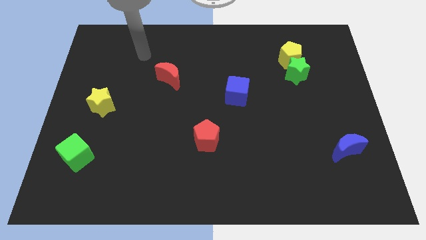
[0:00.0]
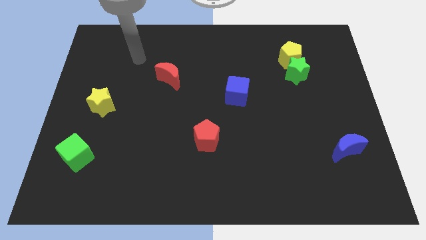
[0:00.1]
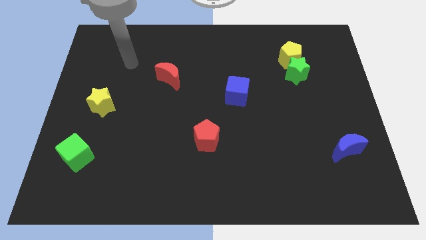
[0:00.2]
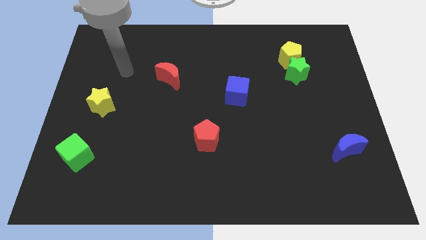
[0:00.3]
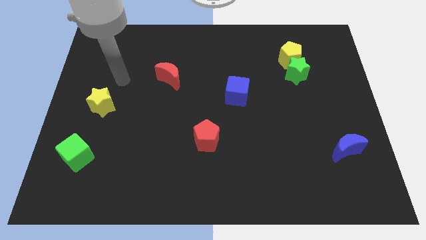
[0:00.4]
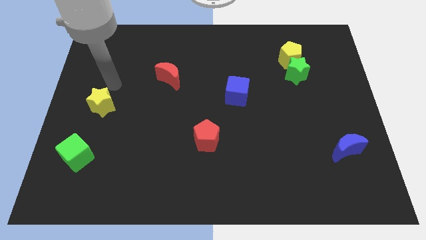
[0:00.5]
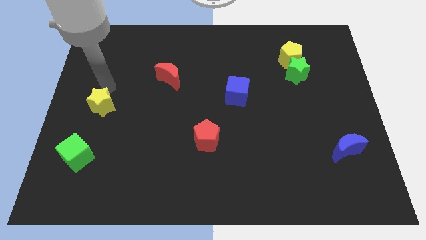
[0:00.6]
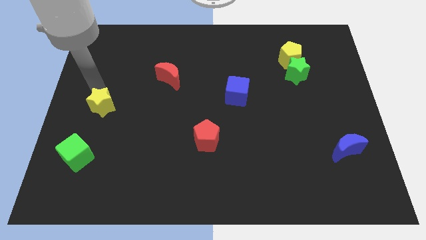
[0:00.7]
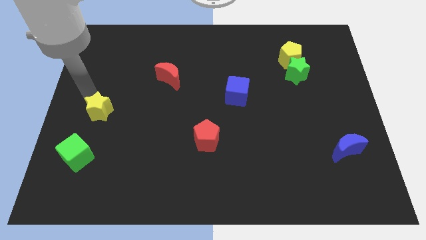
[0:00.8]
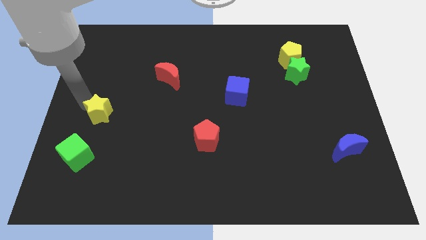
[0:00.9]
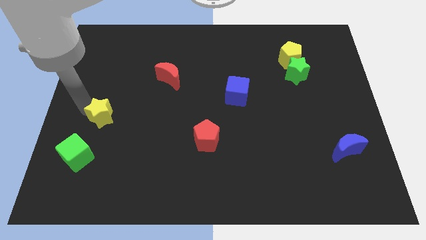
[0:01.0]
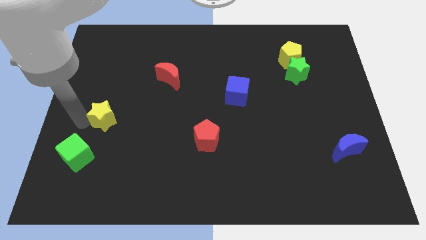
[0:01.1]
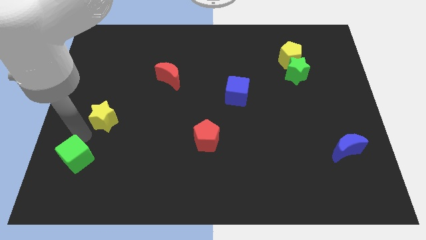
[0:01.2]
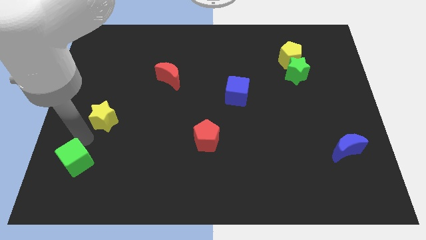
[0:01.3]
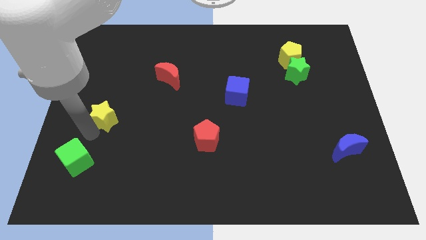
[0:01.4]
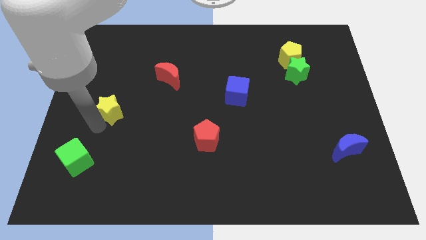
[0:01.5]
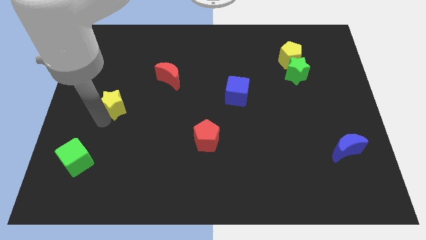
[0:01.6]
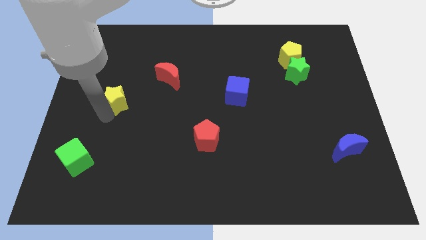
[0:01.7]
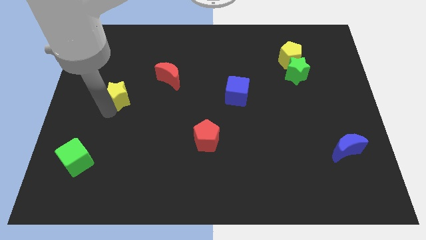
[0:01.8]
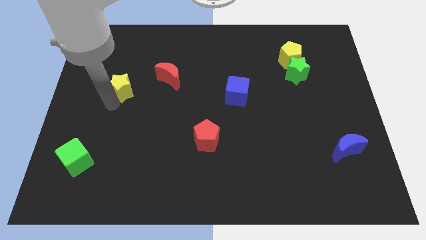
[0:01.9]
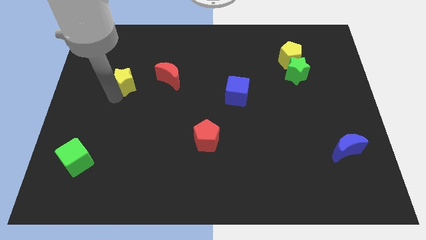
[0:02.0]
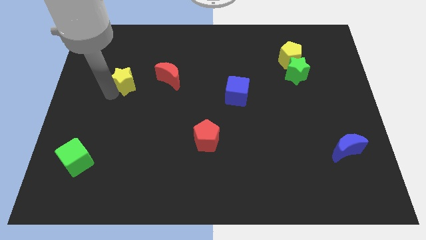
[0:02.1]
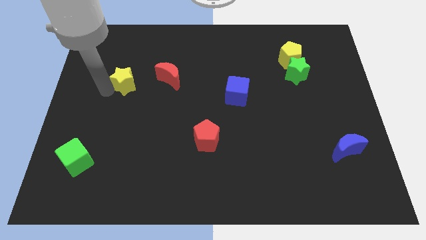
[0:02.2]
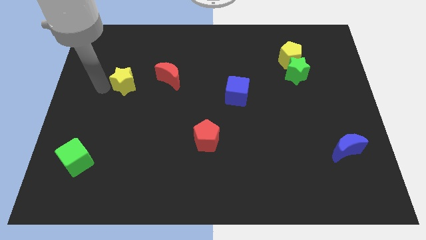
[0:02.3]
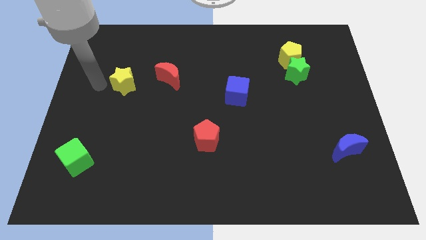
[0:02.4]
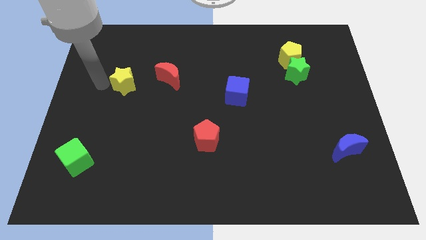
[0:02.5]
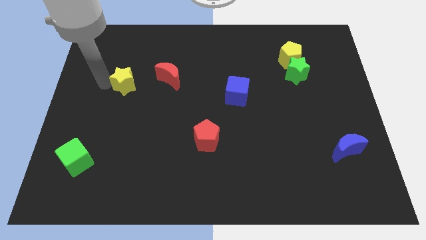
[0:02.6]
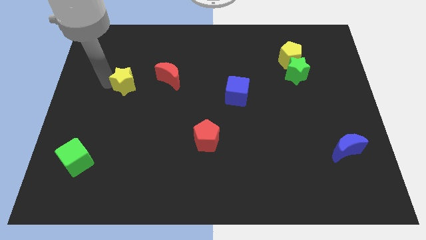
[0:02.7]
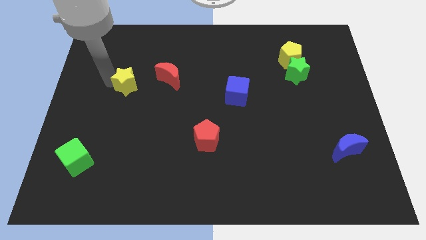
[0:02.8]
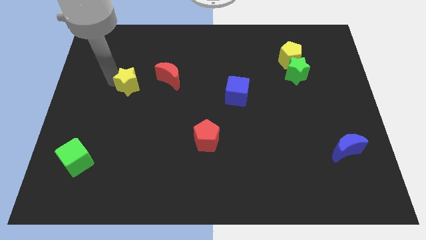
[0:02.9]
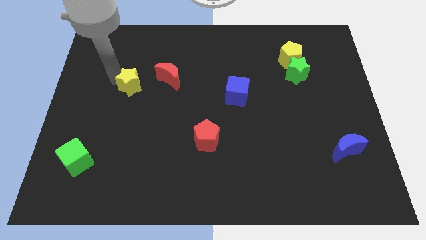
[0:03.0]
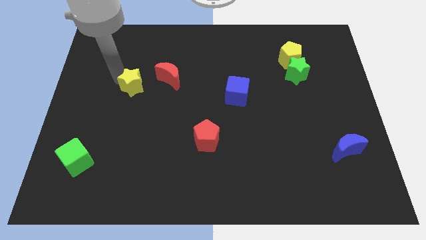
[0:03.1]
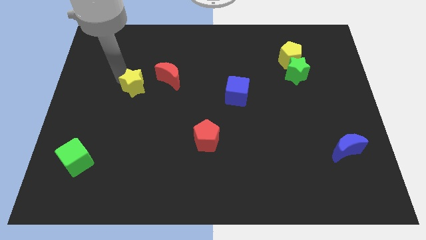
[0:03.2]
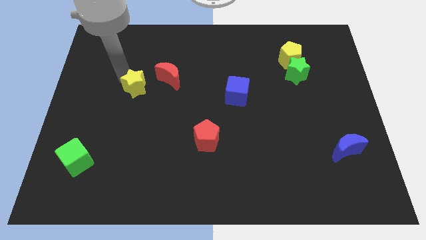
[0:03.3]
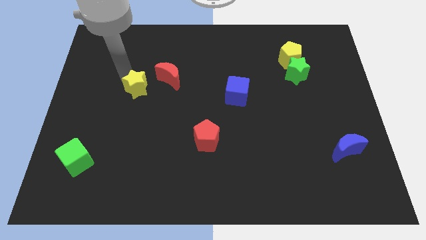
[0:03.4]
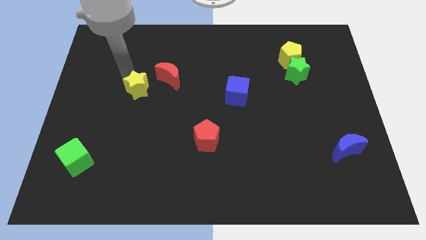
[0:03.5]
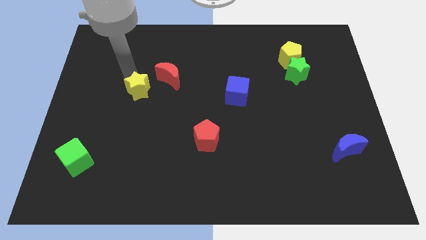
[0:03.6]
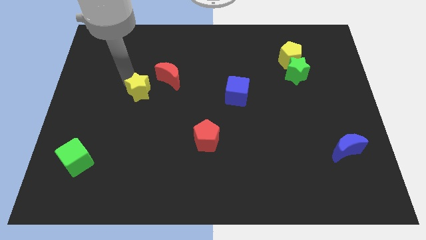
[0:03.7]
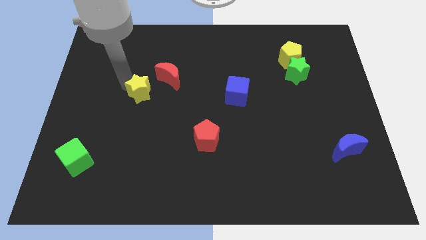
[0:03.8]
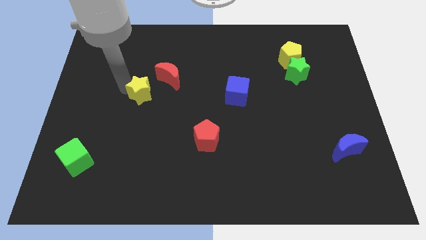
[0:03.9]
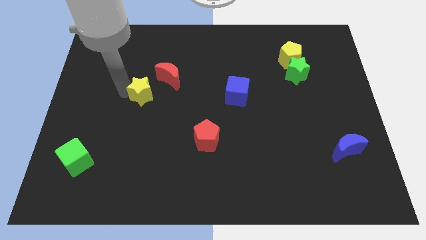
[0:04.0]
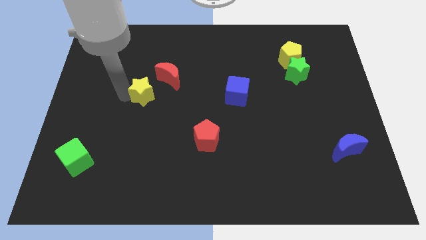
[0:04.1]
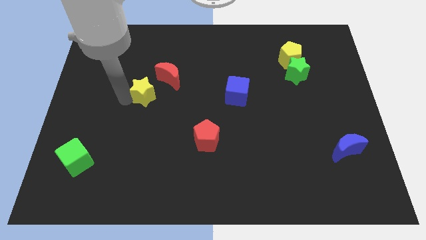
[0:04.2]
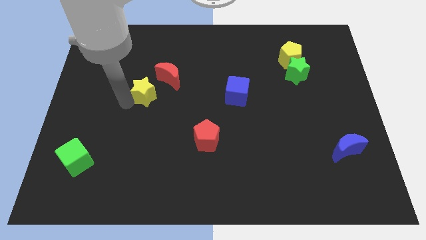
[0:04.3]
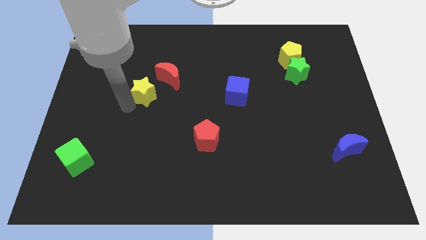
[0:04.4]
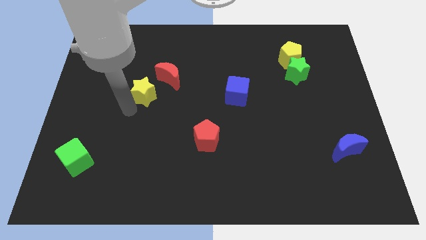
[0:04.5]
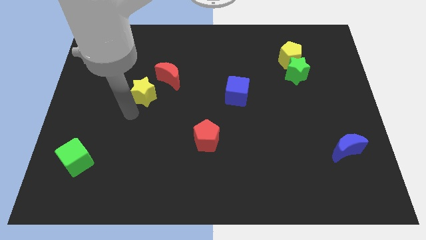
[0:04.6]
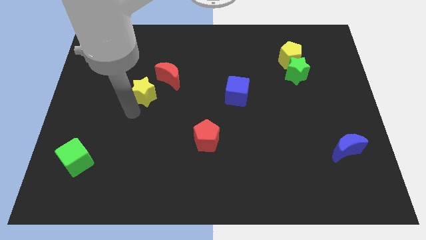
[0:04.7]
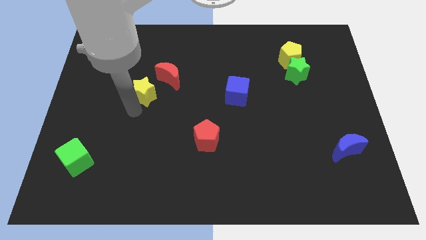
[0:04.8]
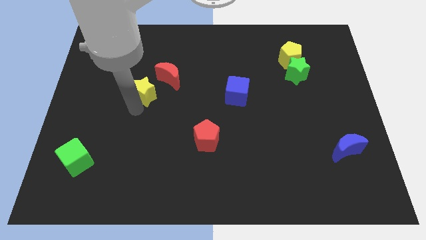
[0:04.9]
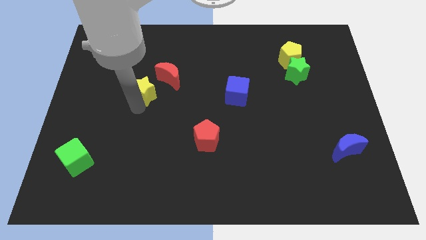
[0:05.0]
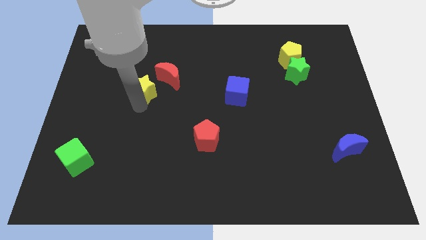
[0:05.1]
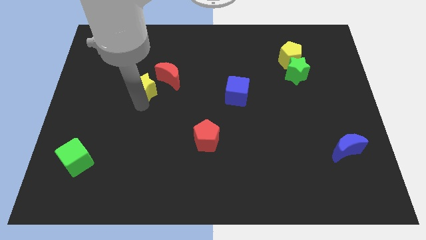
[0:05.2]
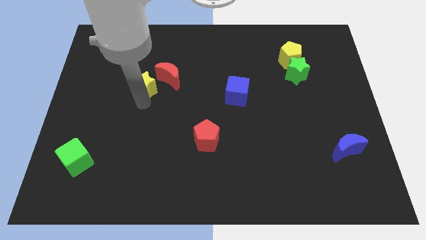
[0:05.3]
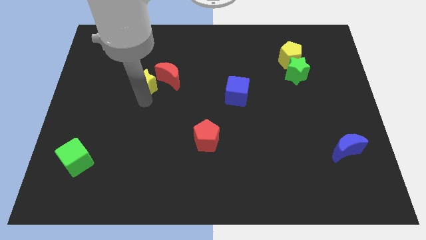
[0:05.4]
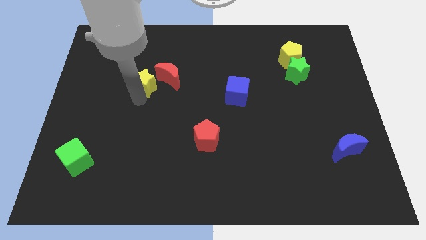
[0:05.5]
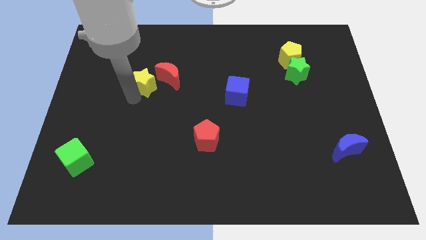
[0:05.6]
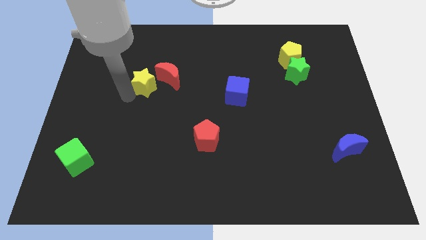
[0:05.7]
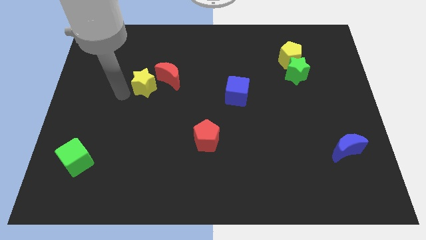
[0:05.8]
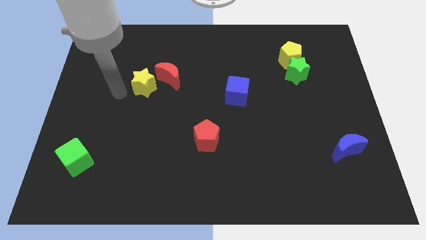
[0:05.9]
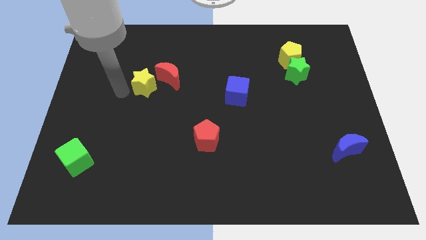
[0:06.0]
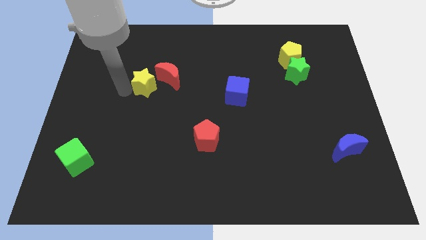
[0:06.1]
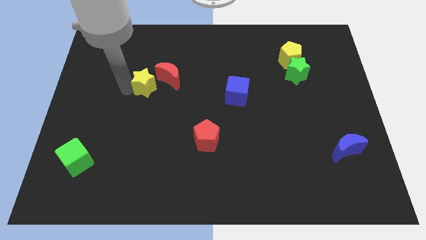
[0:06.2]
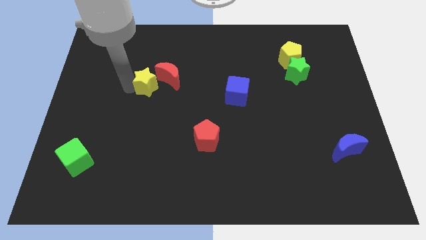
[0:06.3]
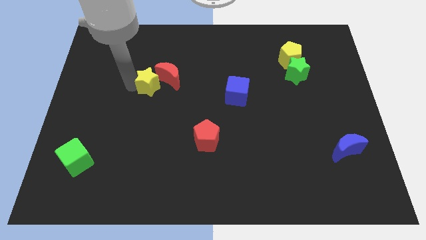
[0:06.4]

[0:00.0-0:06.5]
slide the yellow star close to the red moon
